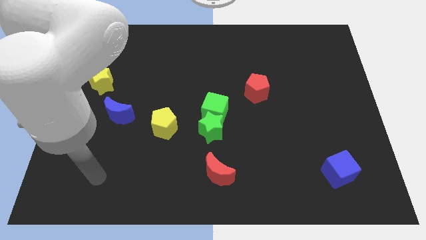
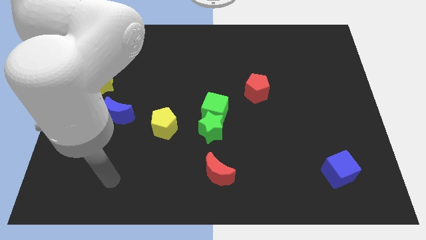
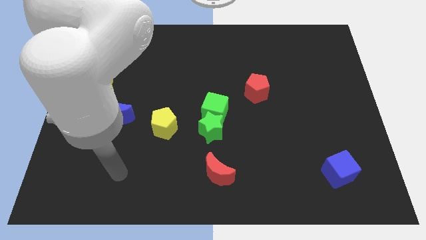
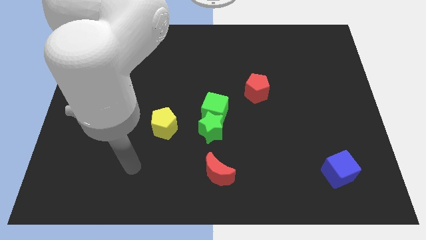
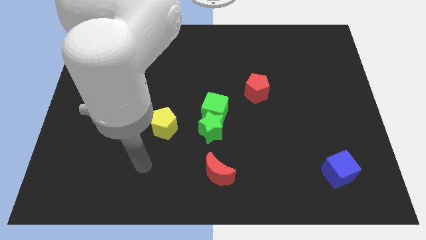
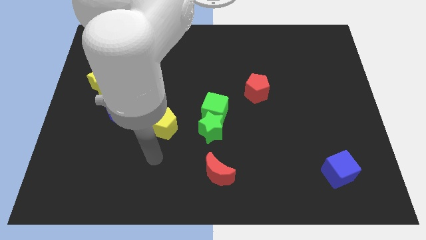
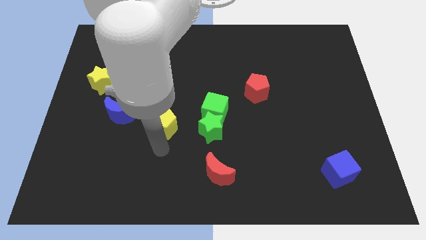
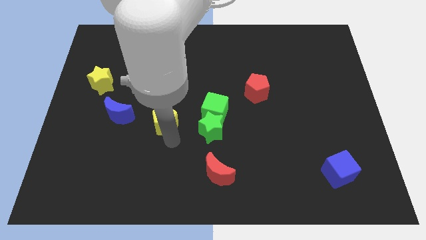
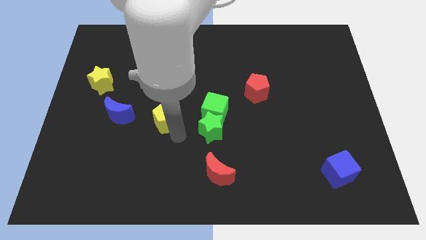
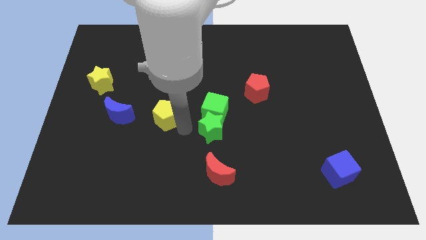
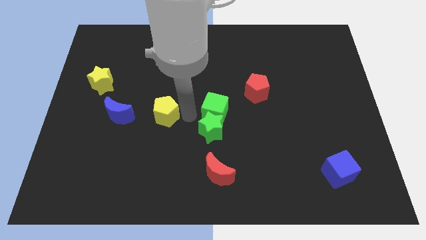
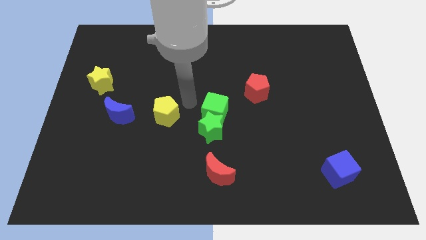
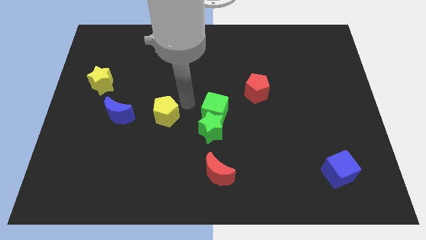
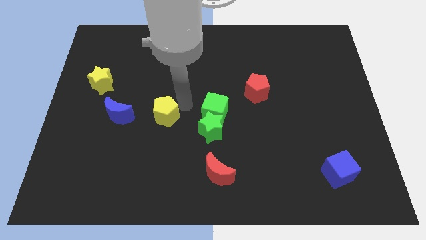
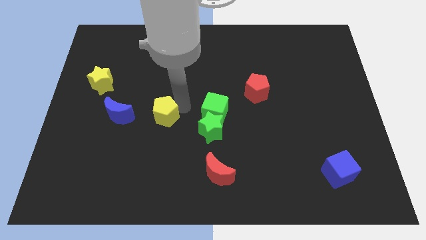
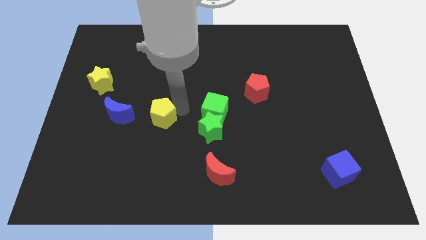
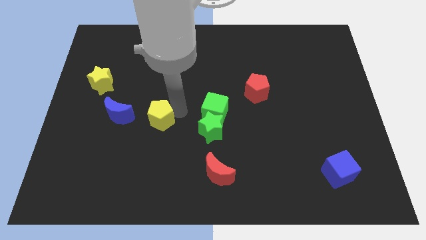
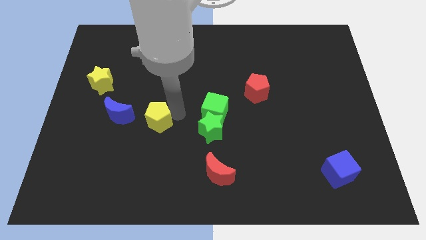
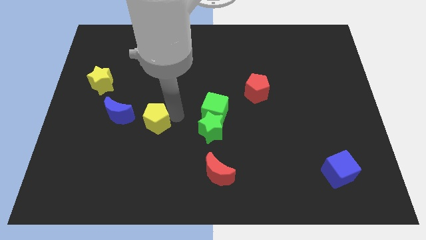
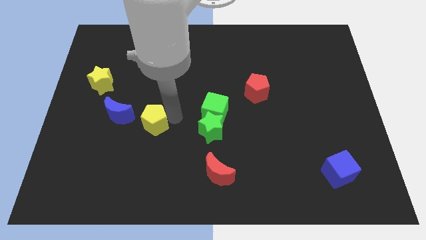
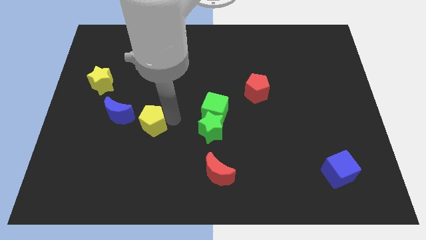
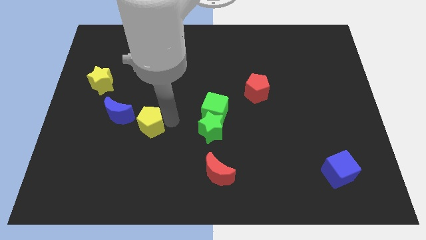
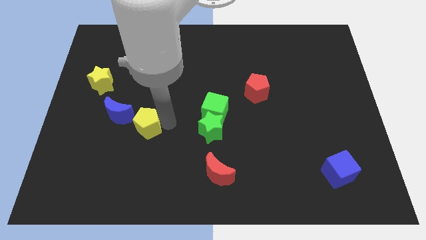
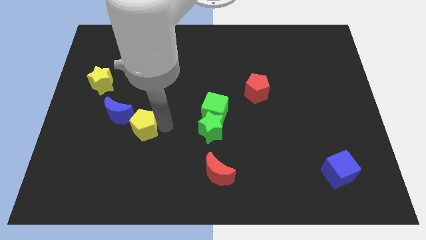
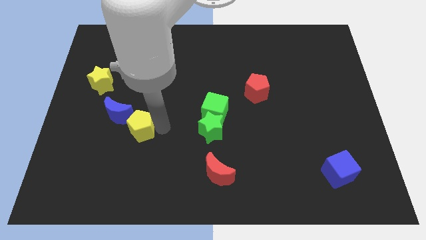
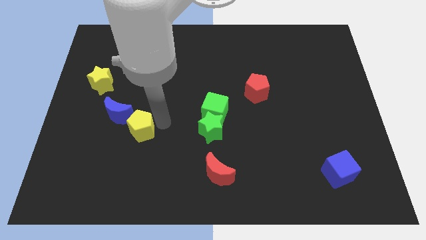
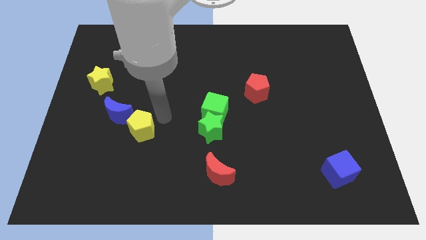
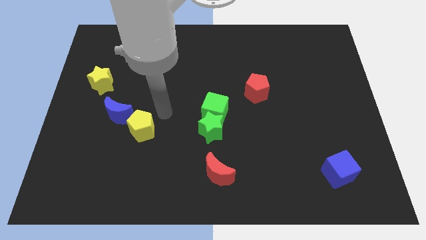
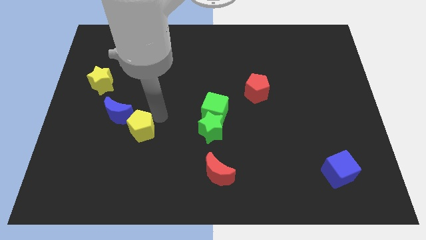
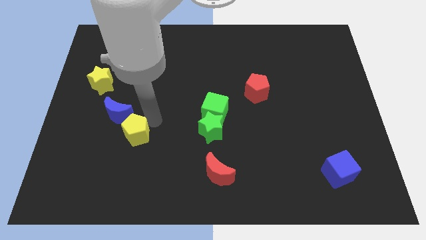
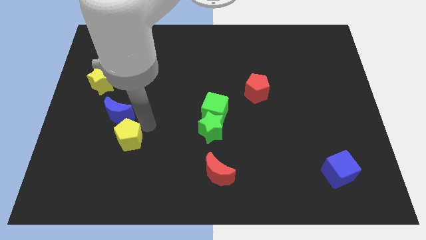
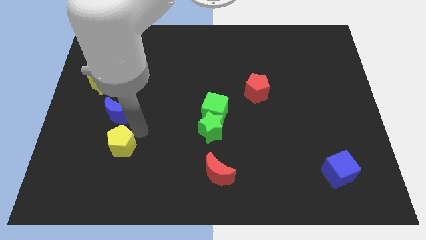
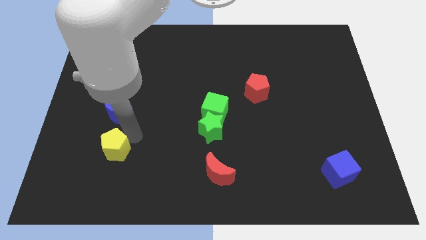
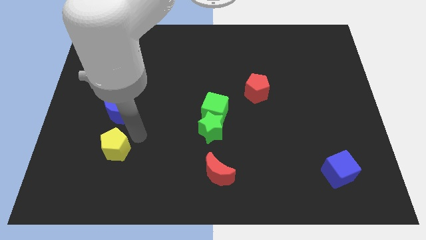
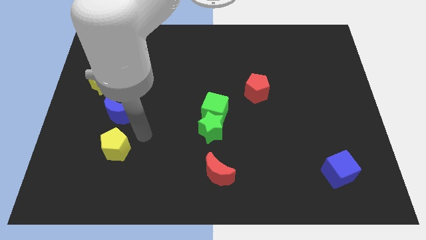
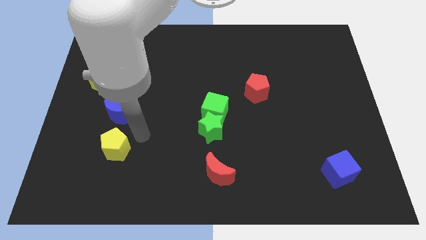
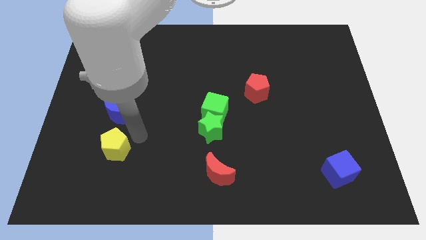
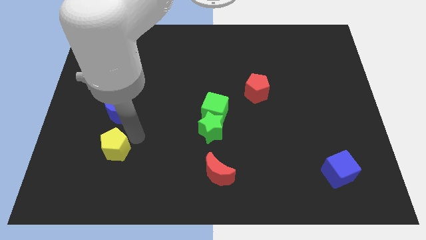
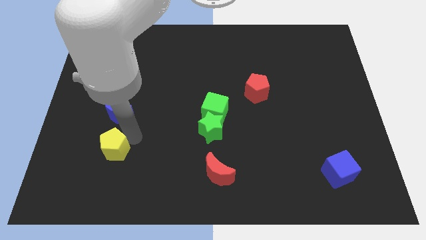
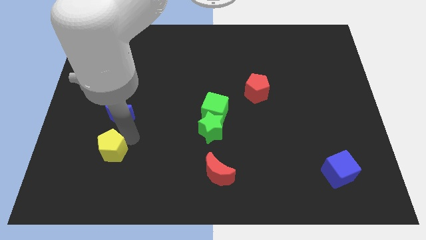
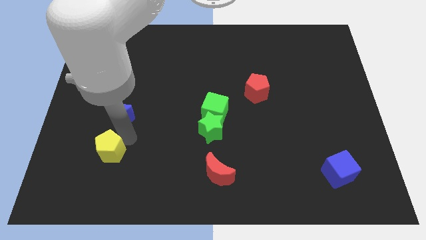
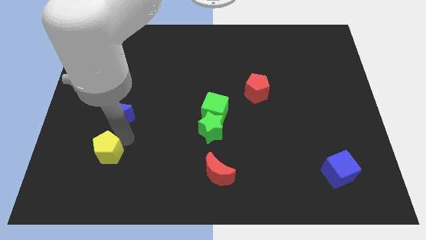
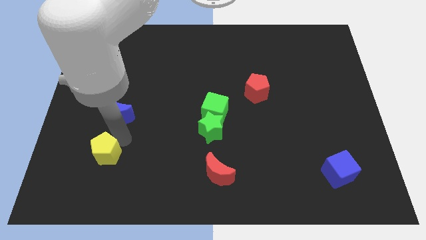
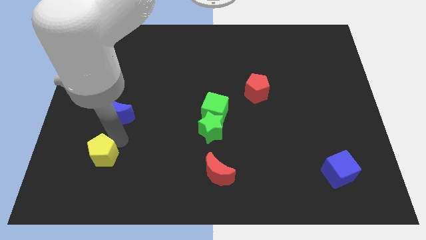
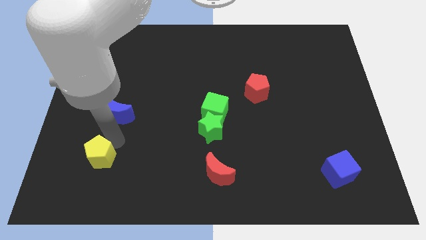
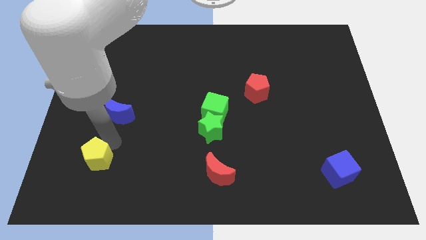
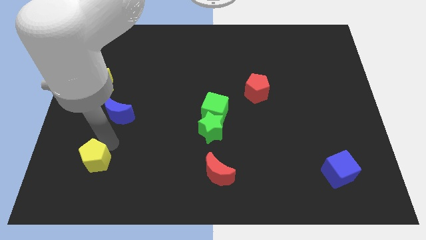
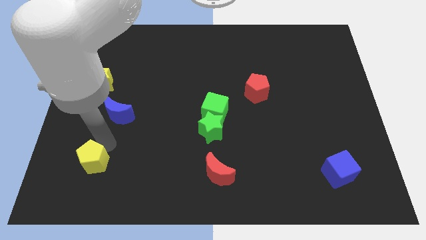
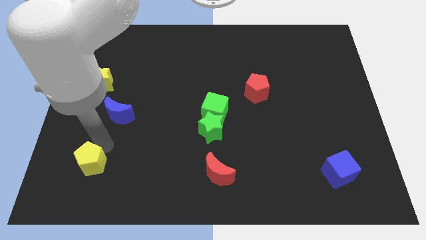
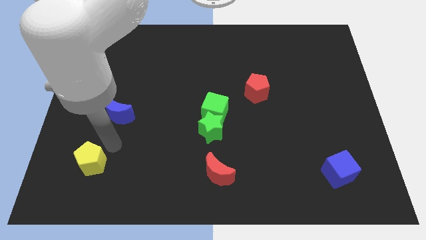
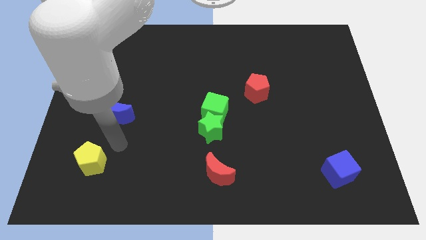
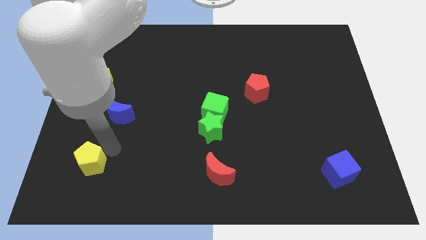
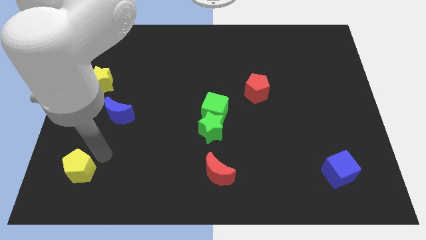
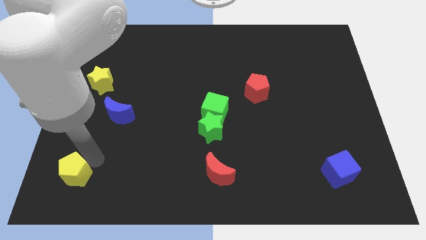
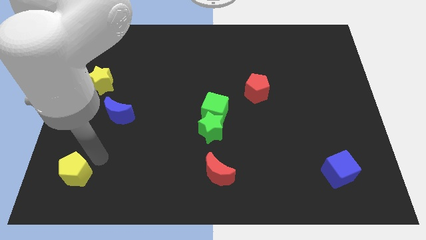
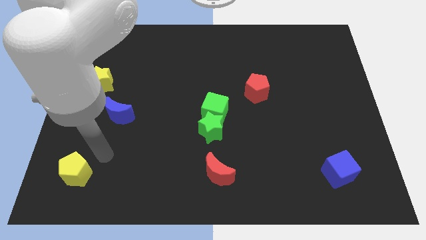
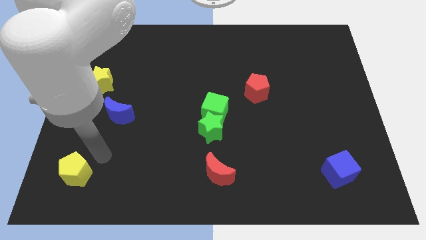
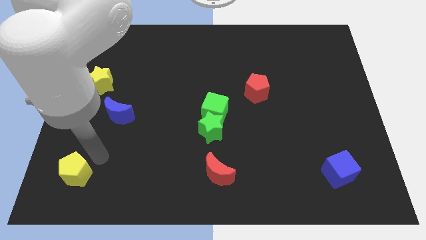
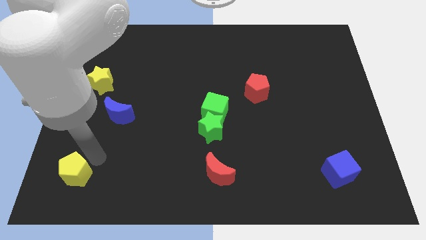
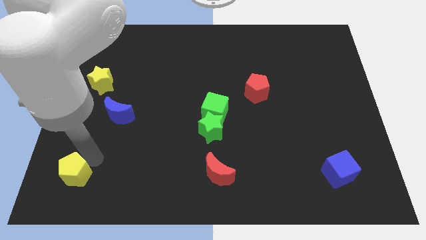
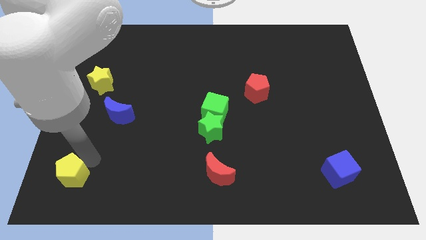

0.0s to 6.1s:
move the yellow pentagon to the bottom left corner

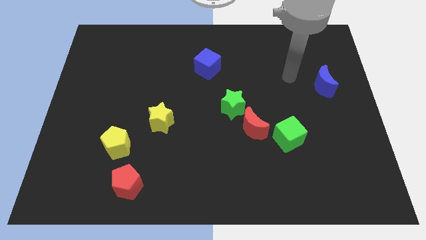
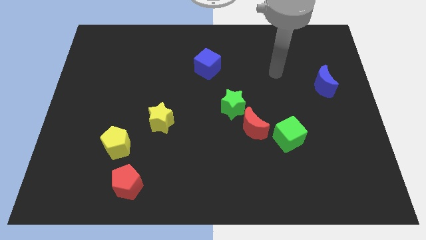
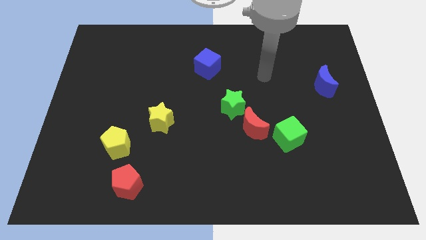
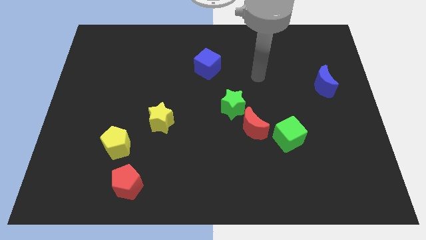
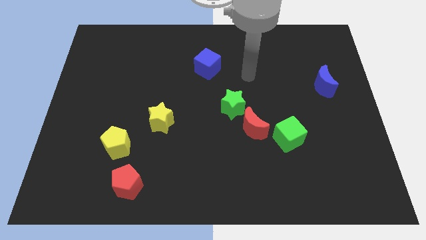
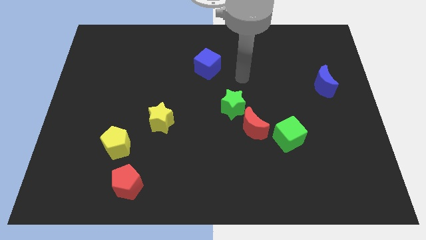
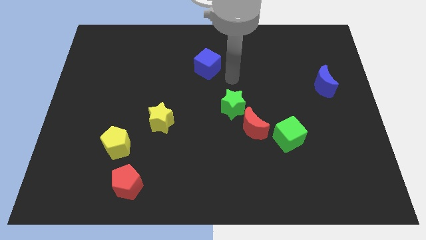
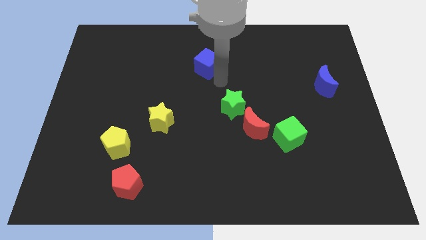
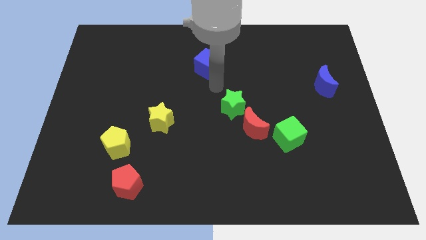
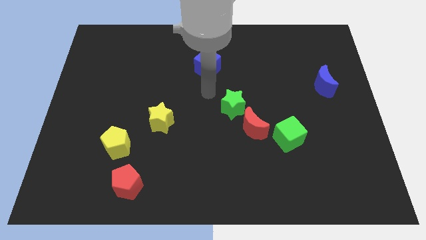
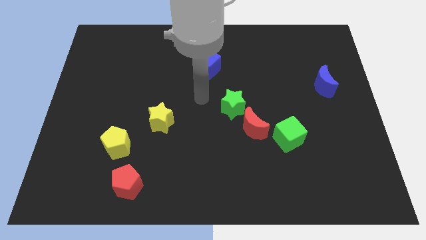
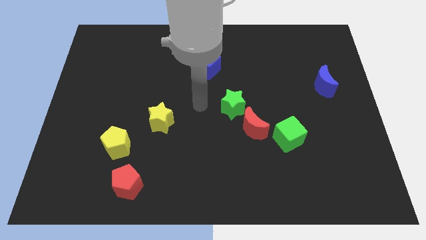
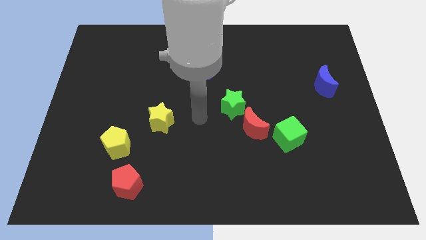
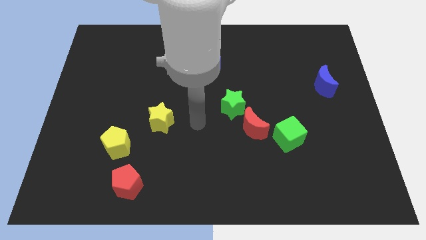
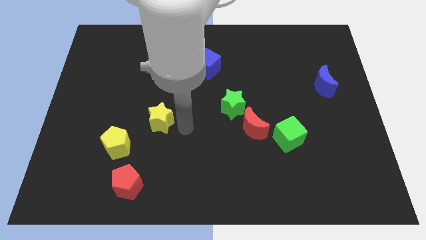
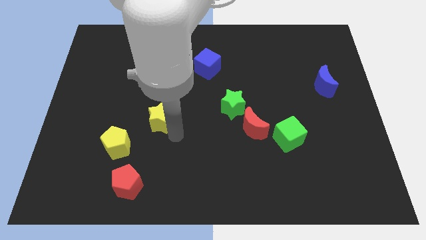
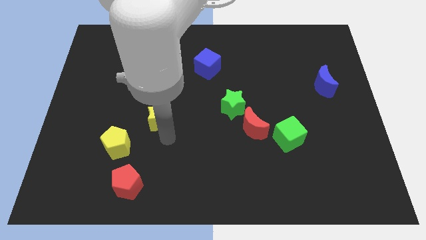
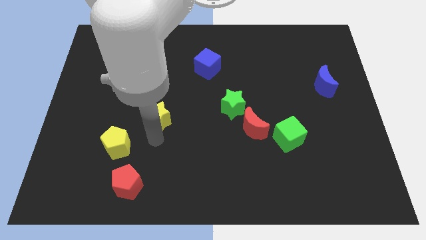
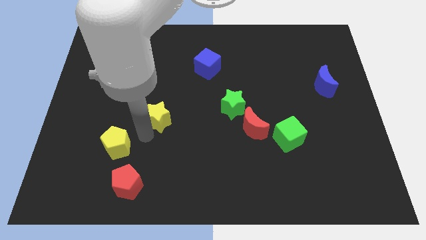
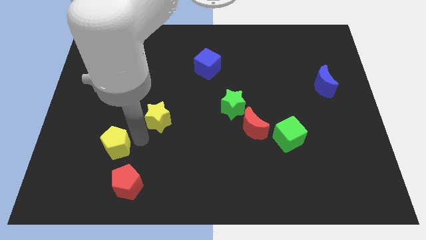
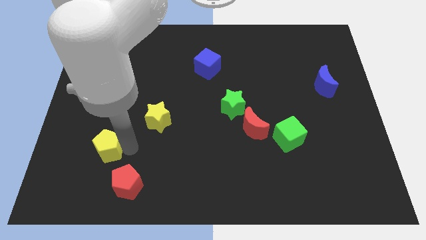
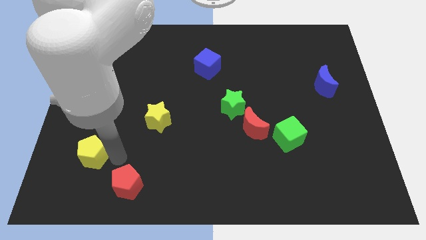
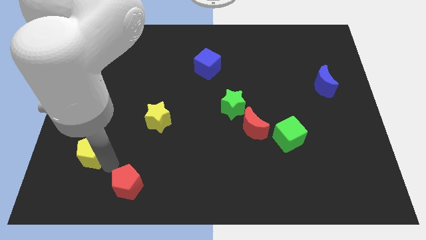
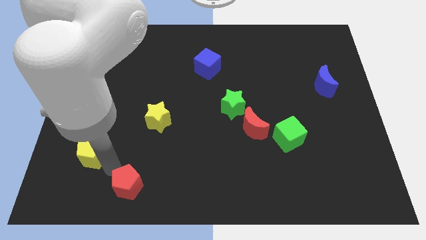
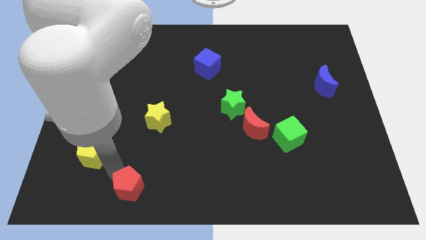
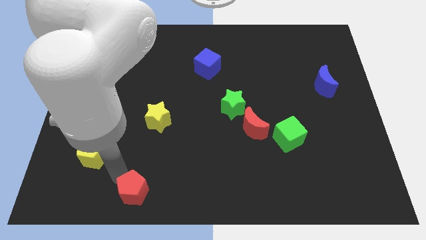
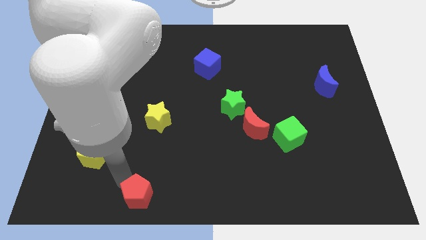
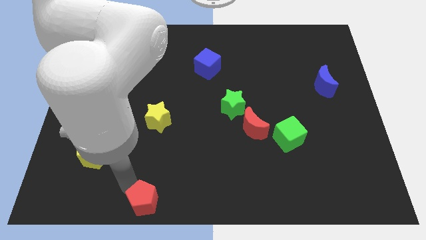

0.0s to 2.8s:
put the red pentagon to the bottom side
